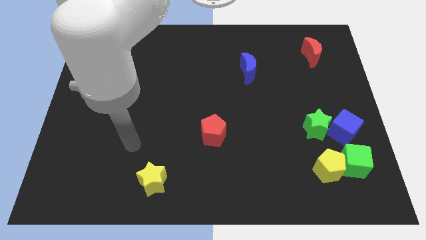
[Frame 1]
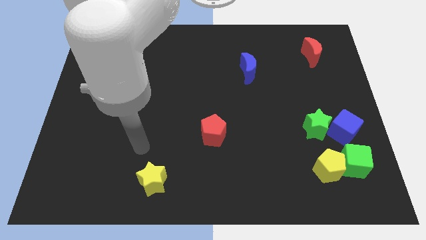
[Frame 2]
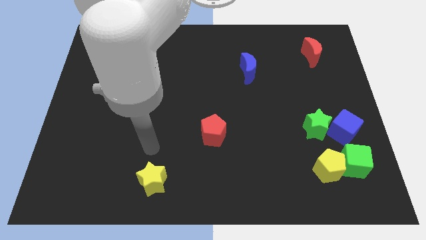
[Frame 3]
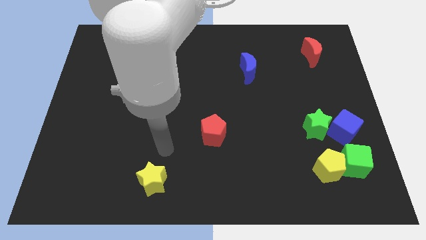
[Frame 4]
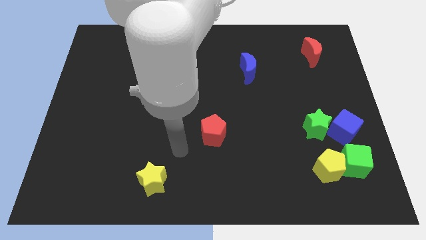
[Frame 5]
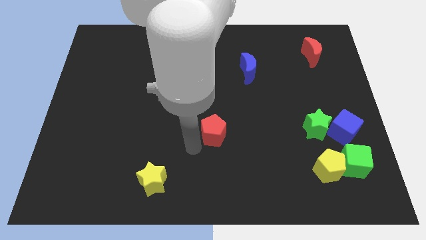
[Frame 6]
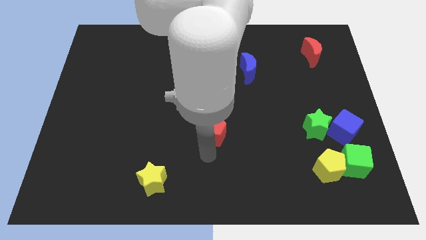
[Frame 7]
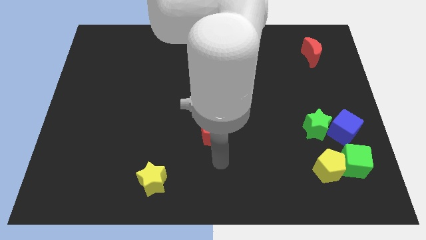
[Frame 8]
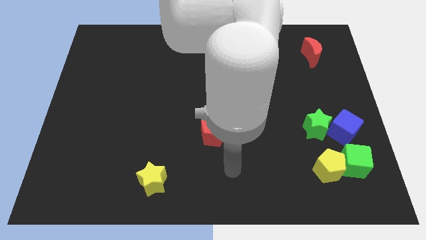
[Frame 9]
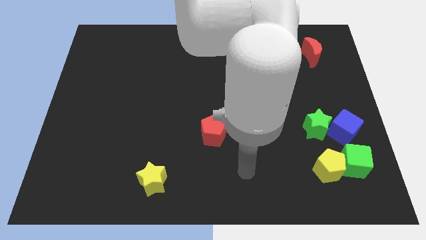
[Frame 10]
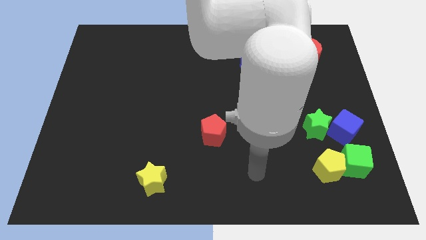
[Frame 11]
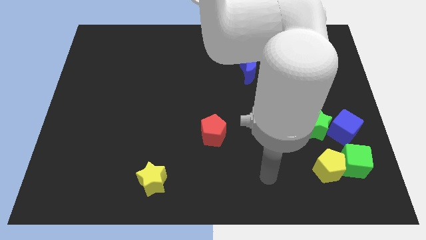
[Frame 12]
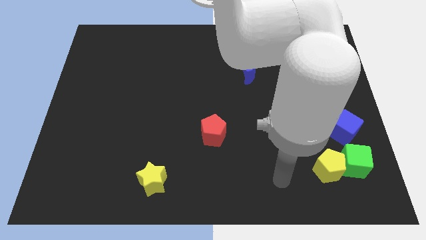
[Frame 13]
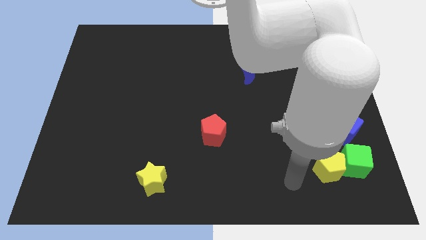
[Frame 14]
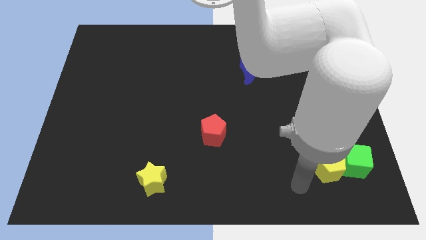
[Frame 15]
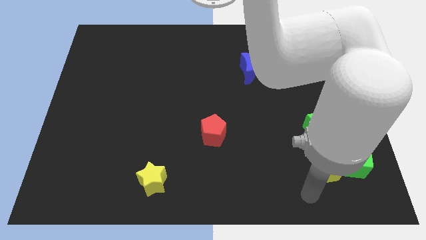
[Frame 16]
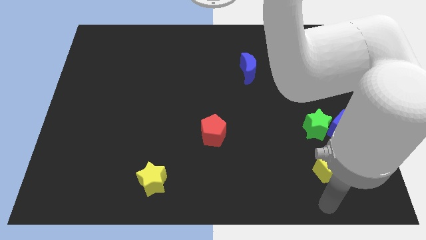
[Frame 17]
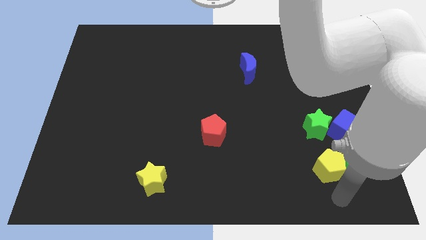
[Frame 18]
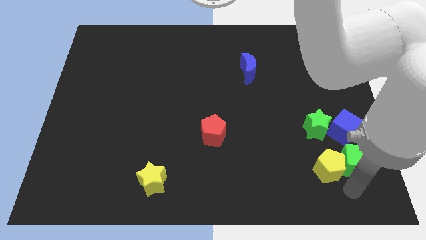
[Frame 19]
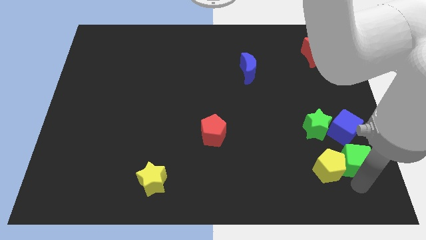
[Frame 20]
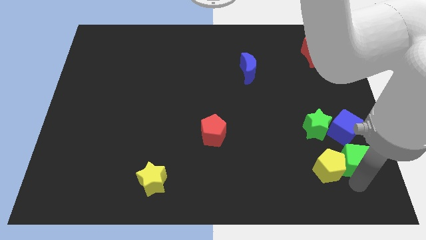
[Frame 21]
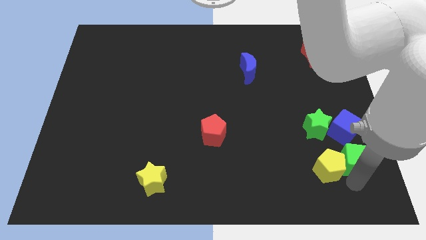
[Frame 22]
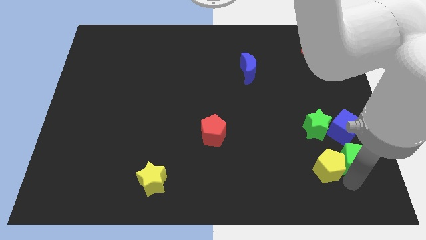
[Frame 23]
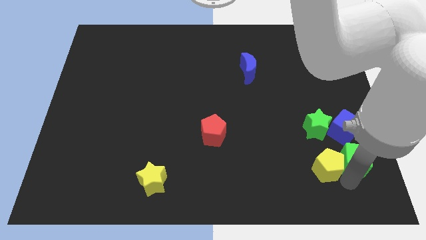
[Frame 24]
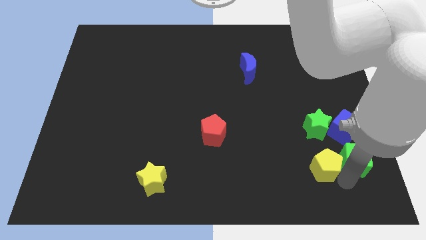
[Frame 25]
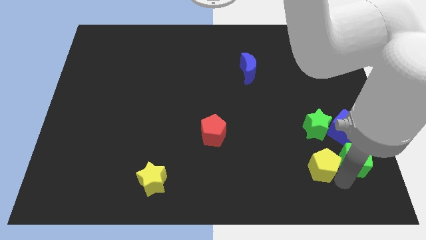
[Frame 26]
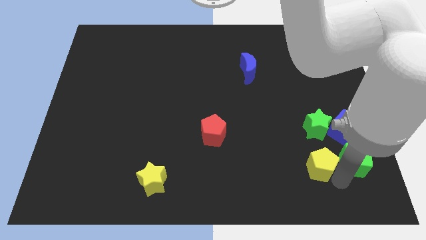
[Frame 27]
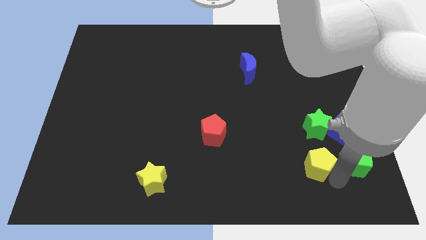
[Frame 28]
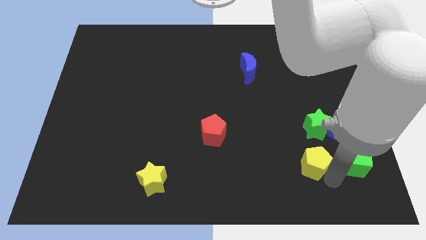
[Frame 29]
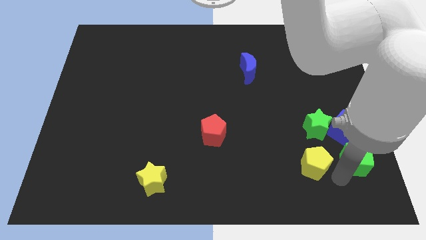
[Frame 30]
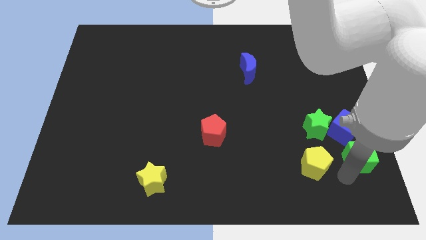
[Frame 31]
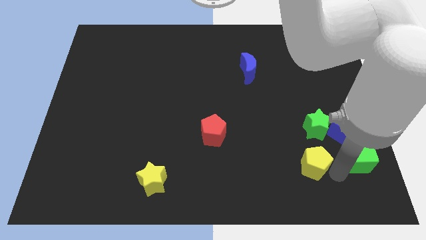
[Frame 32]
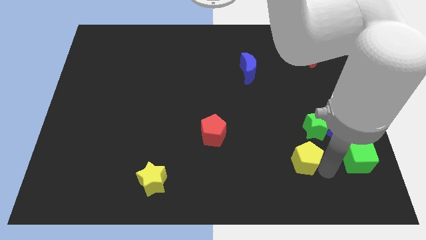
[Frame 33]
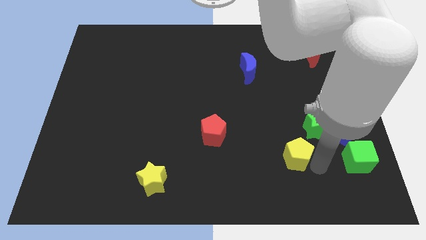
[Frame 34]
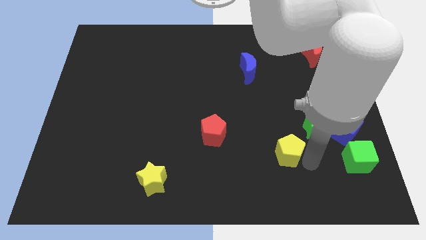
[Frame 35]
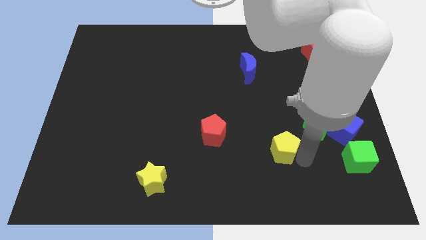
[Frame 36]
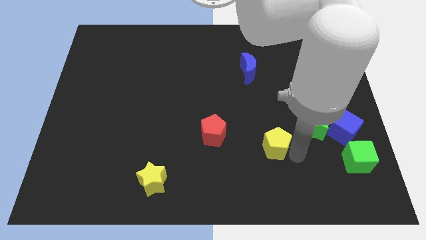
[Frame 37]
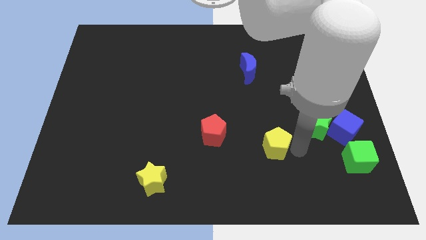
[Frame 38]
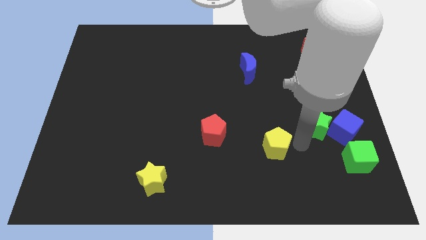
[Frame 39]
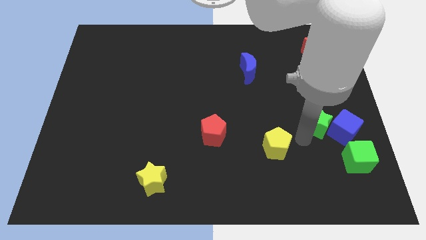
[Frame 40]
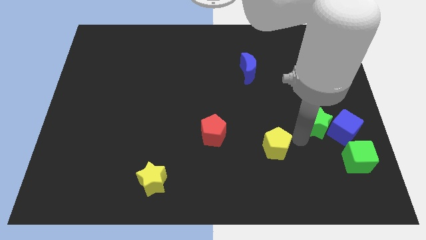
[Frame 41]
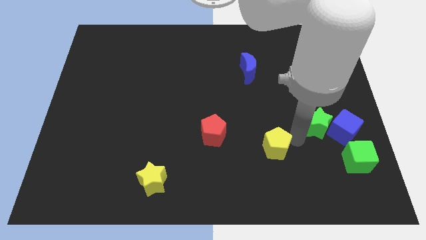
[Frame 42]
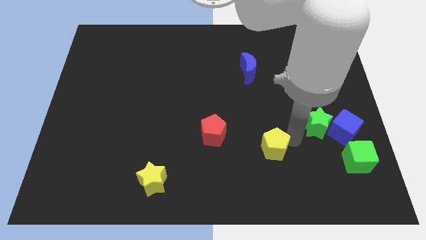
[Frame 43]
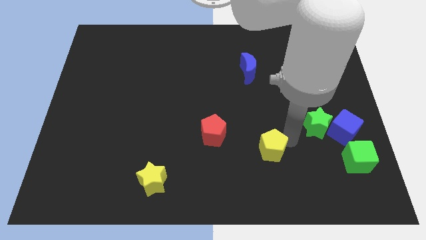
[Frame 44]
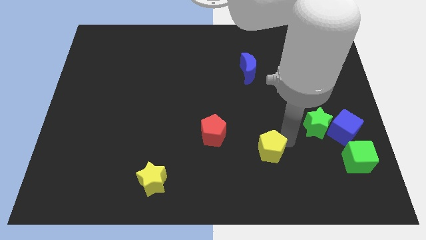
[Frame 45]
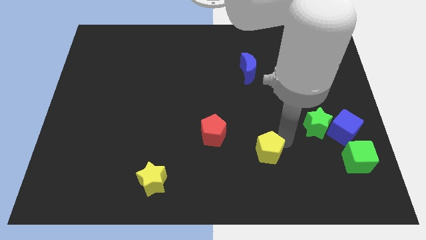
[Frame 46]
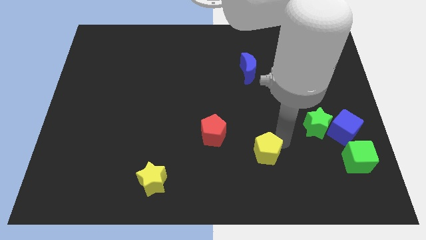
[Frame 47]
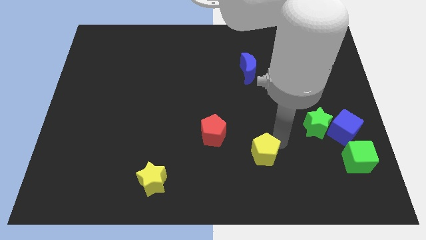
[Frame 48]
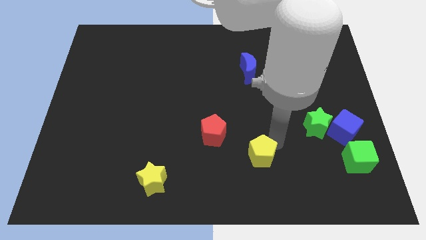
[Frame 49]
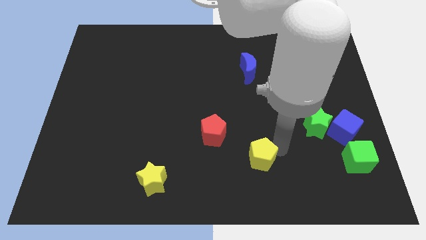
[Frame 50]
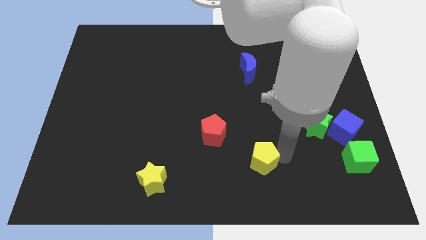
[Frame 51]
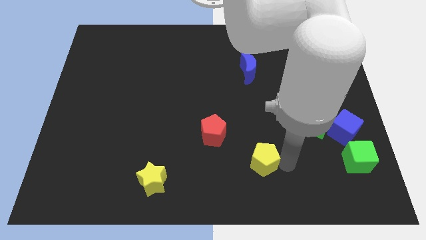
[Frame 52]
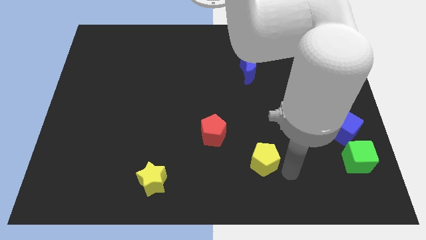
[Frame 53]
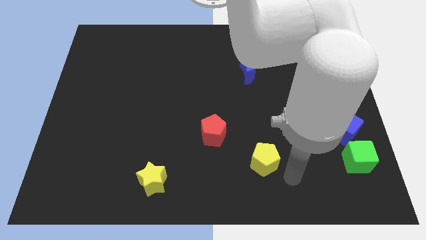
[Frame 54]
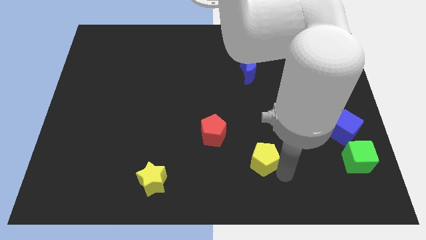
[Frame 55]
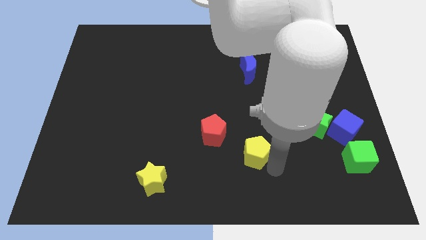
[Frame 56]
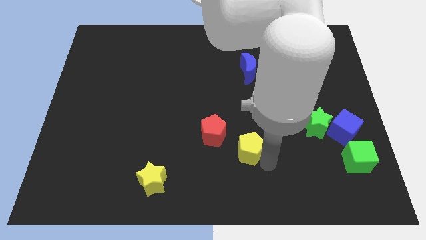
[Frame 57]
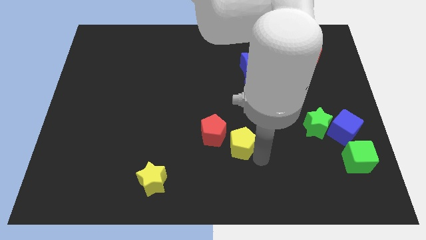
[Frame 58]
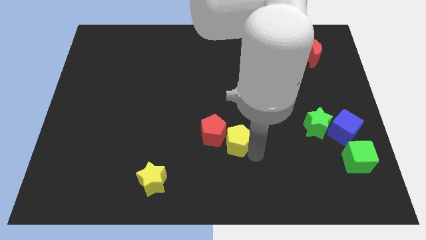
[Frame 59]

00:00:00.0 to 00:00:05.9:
move the yellow pentagon to the red pentagon

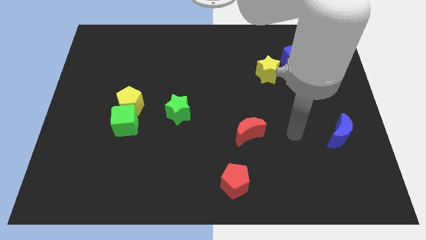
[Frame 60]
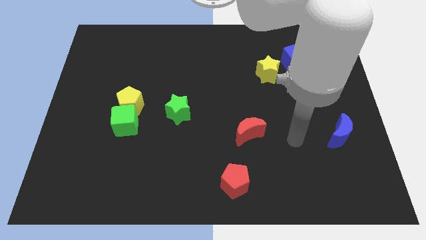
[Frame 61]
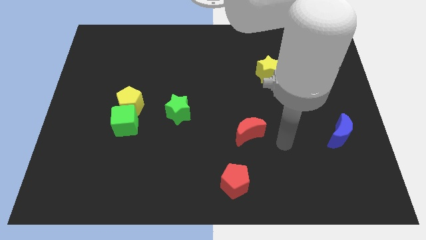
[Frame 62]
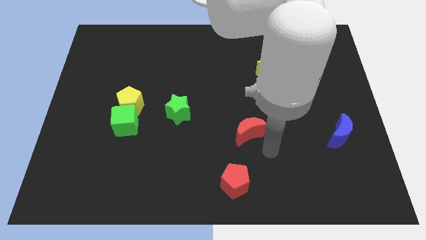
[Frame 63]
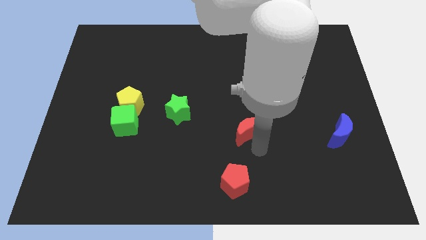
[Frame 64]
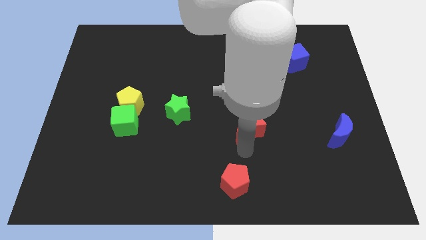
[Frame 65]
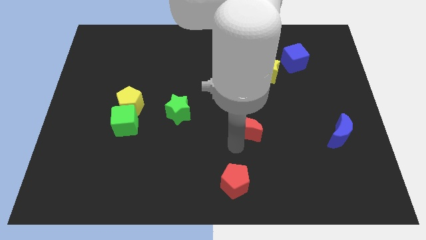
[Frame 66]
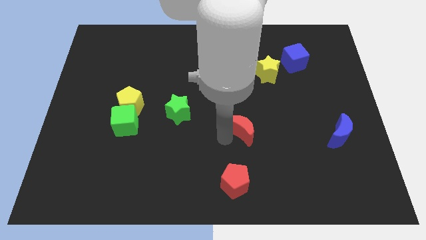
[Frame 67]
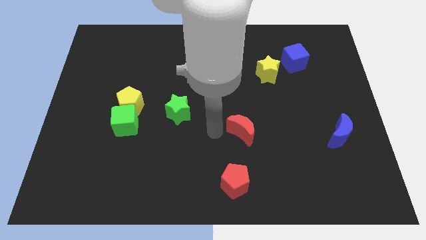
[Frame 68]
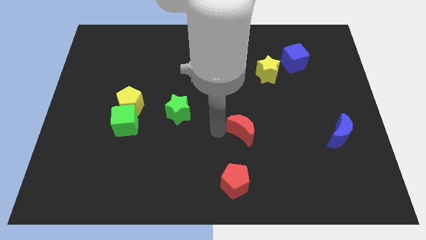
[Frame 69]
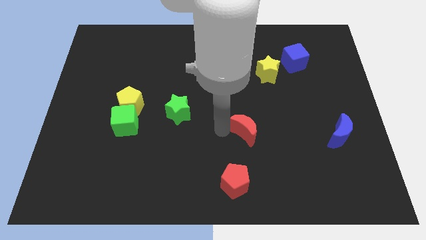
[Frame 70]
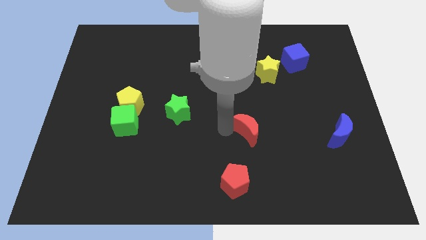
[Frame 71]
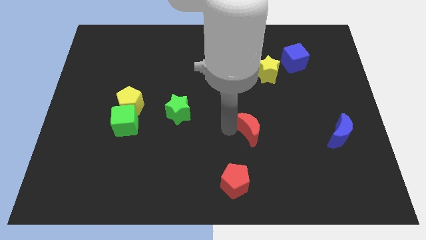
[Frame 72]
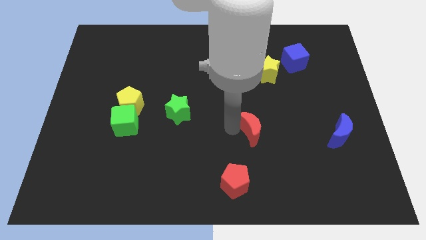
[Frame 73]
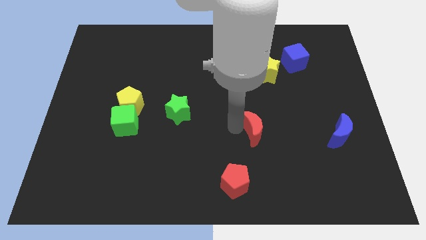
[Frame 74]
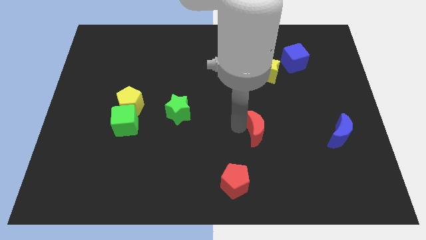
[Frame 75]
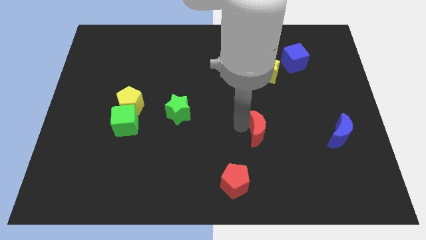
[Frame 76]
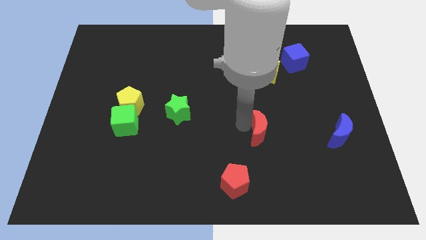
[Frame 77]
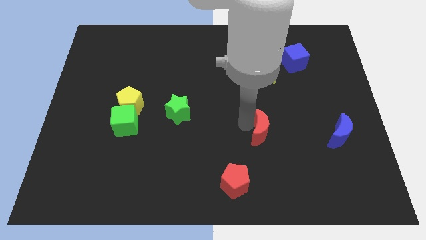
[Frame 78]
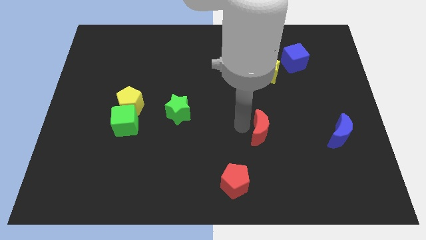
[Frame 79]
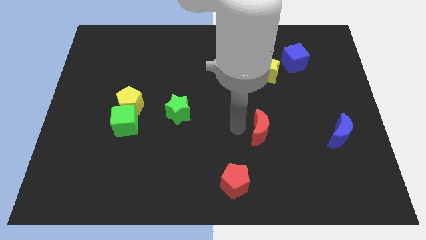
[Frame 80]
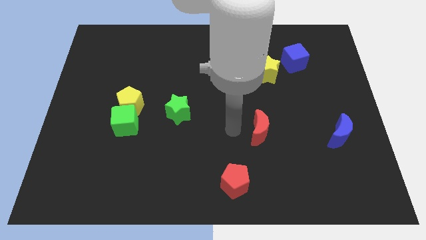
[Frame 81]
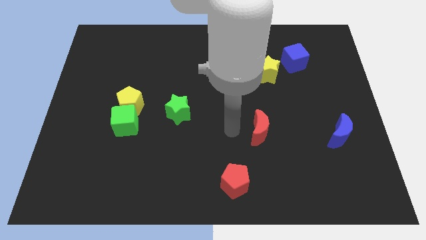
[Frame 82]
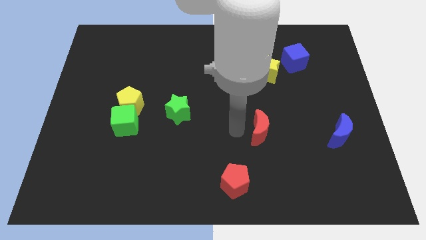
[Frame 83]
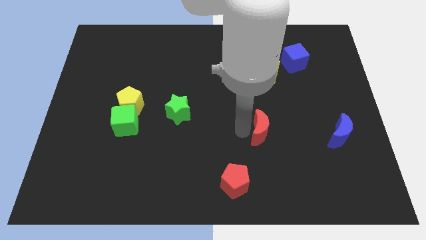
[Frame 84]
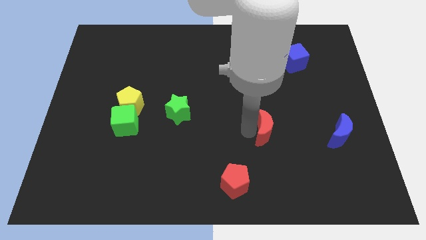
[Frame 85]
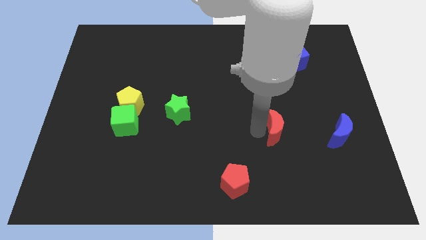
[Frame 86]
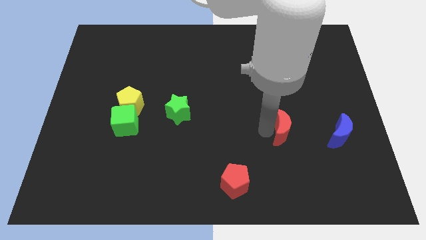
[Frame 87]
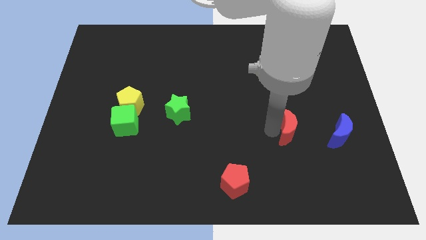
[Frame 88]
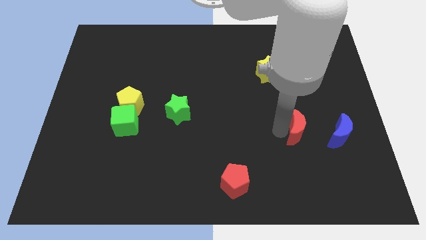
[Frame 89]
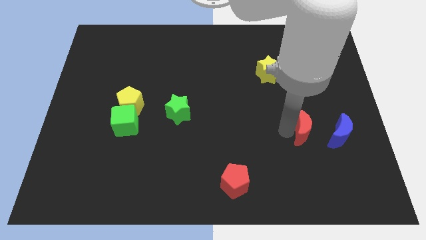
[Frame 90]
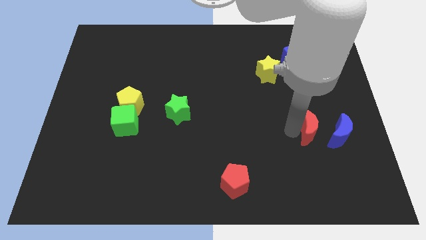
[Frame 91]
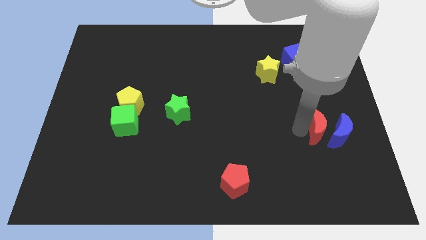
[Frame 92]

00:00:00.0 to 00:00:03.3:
move the red moon close to the blue moon
